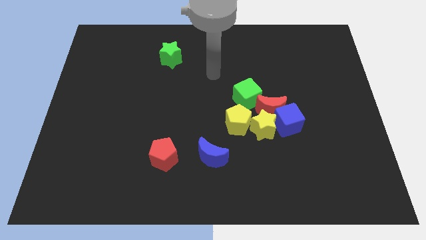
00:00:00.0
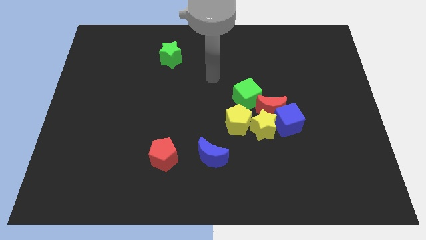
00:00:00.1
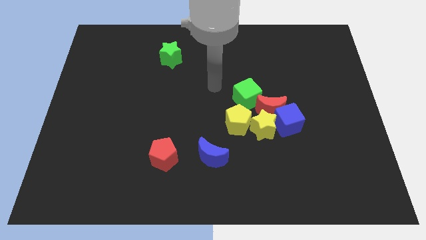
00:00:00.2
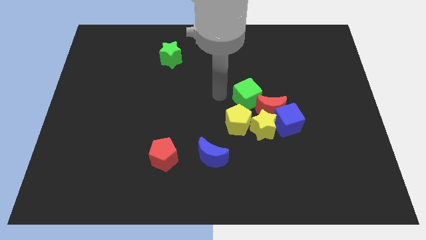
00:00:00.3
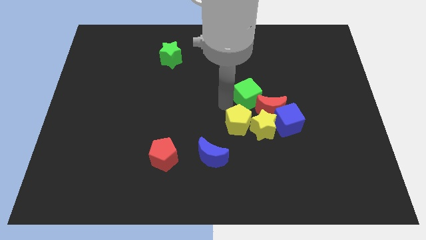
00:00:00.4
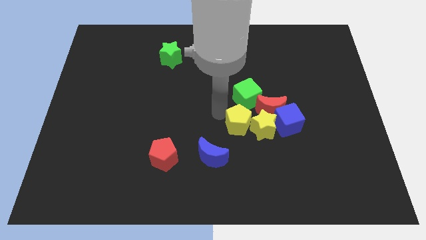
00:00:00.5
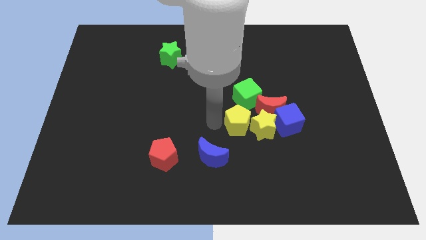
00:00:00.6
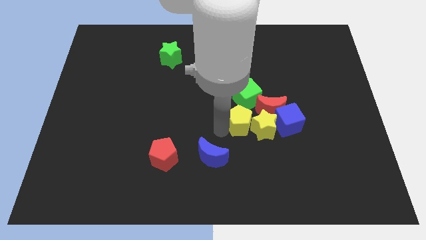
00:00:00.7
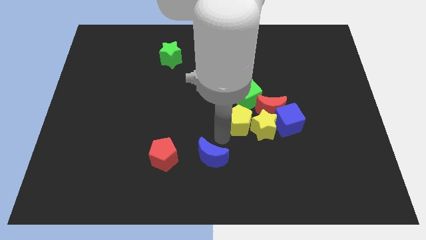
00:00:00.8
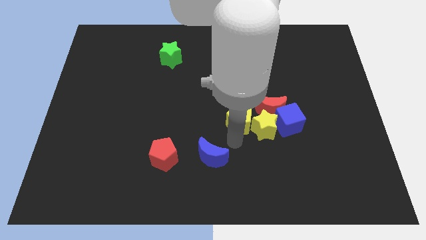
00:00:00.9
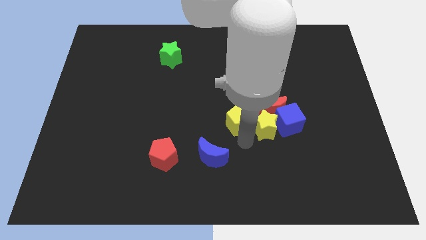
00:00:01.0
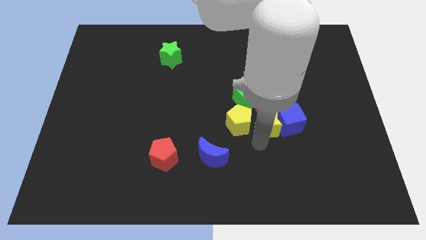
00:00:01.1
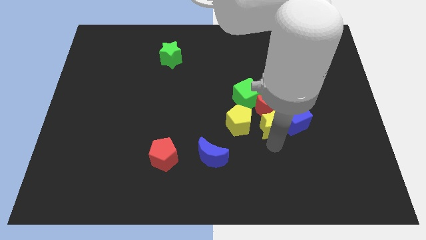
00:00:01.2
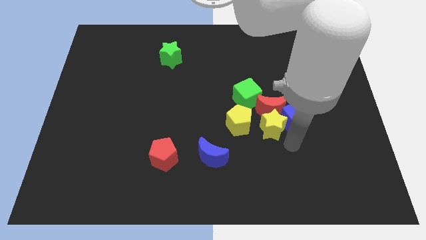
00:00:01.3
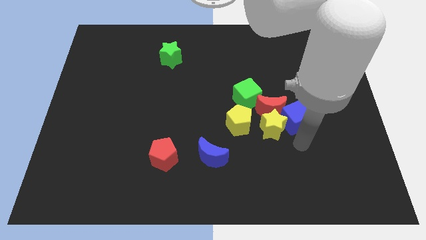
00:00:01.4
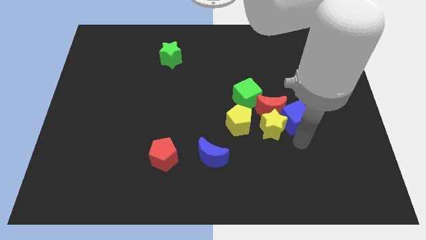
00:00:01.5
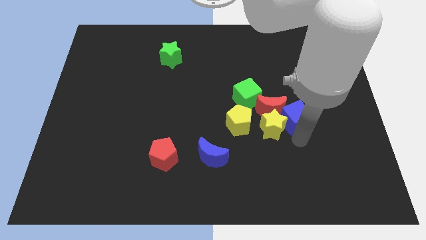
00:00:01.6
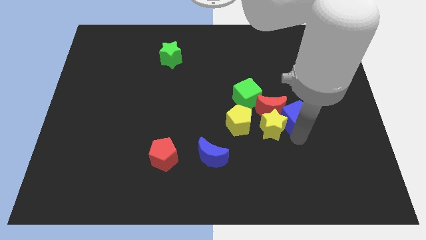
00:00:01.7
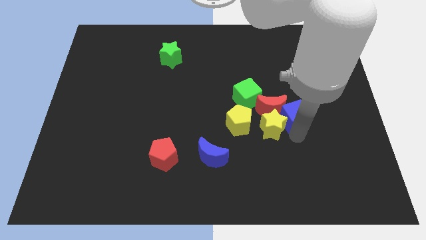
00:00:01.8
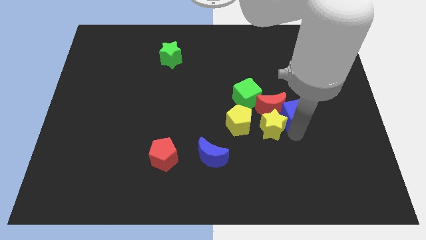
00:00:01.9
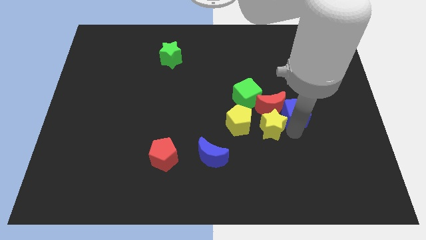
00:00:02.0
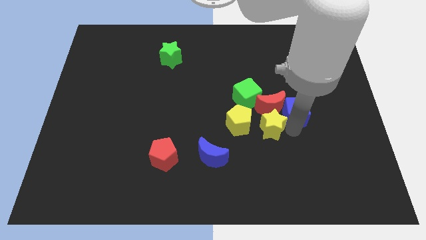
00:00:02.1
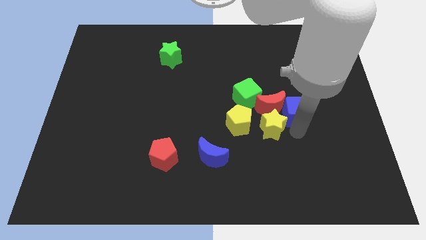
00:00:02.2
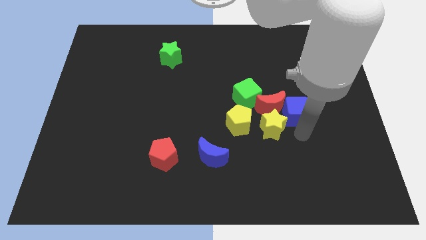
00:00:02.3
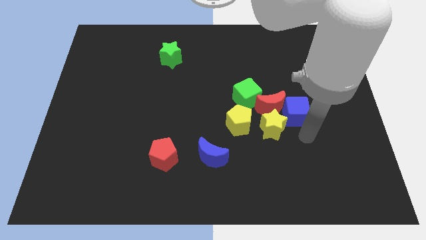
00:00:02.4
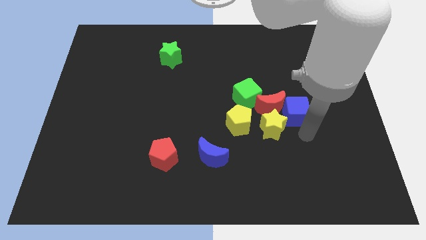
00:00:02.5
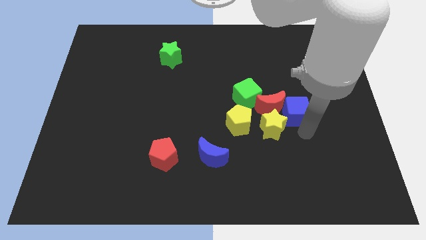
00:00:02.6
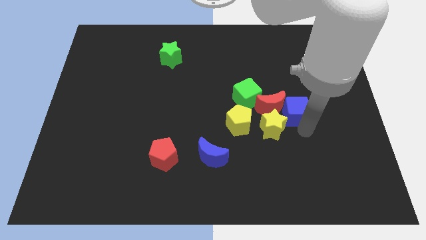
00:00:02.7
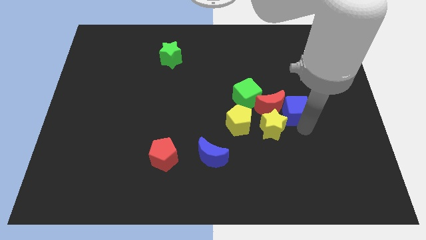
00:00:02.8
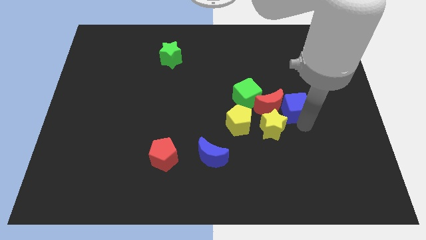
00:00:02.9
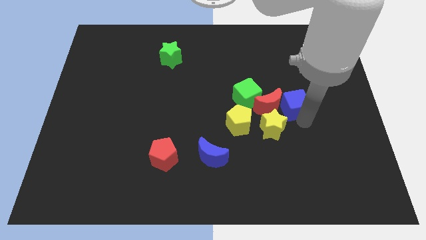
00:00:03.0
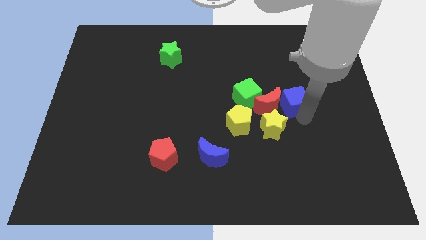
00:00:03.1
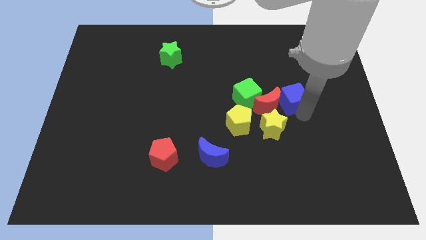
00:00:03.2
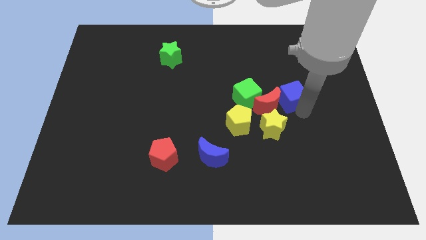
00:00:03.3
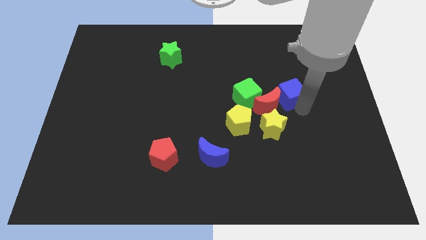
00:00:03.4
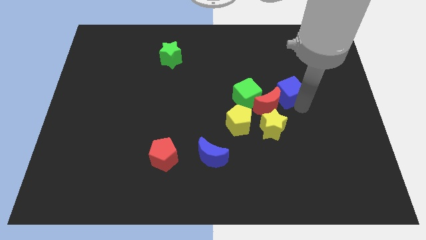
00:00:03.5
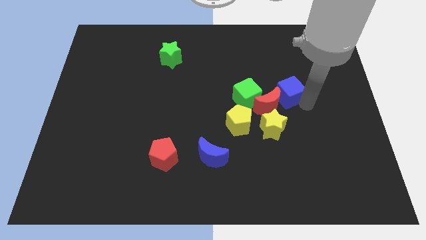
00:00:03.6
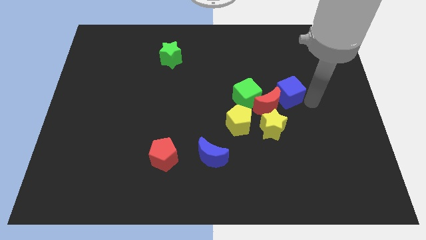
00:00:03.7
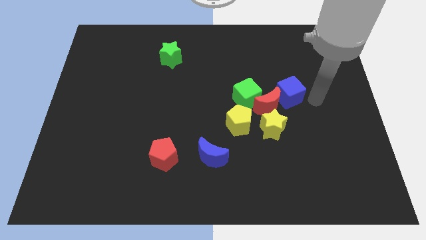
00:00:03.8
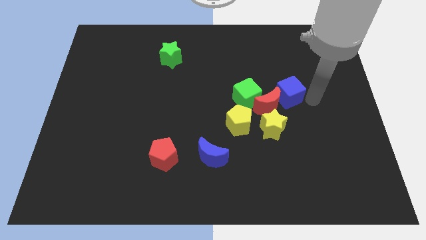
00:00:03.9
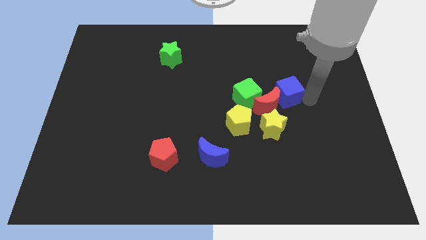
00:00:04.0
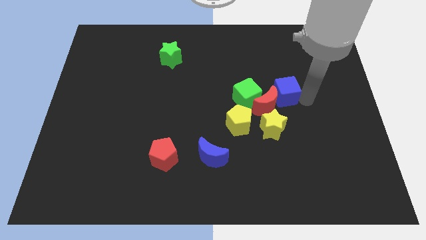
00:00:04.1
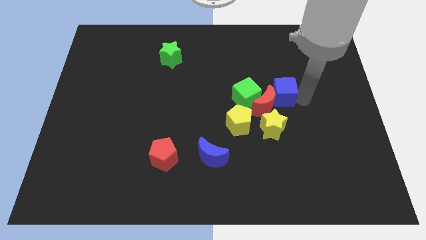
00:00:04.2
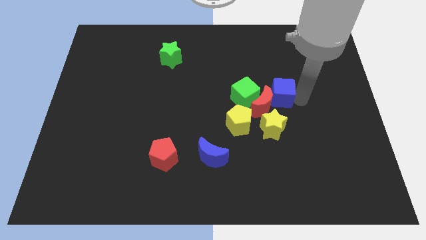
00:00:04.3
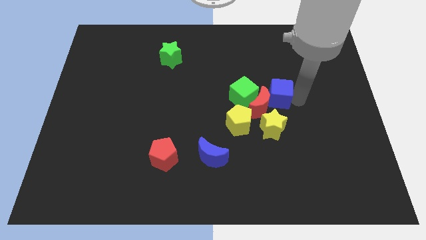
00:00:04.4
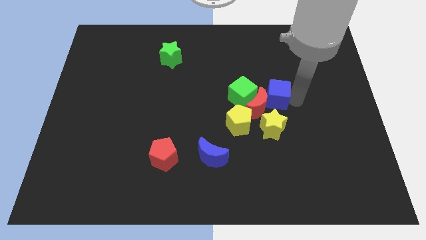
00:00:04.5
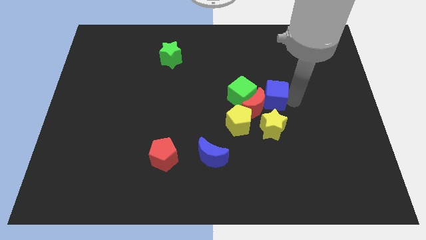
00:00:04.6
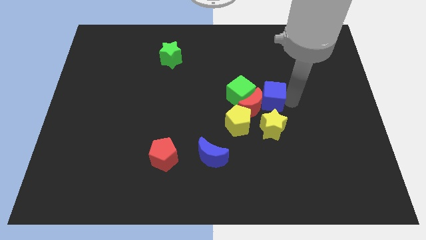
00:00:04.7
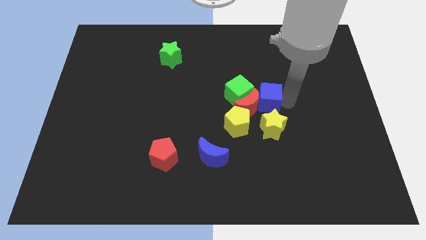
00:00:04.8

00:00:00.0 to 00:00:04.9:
slide the blue cube a bit up and then to the left

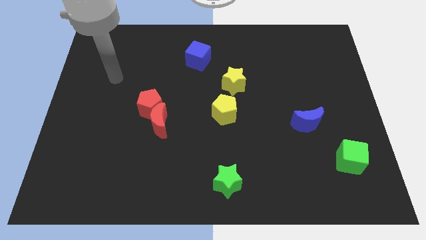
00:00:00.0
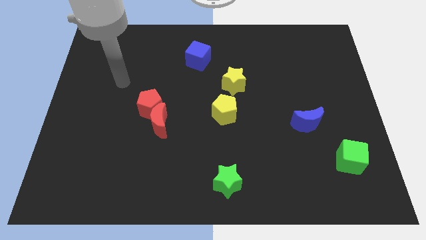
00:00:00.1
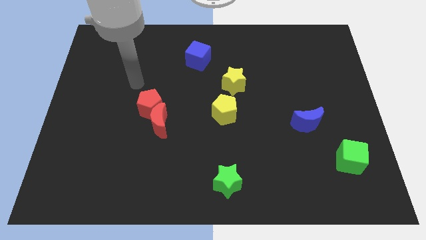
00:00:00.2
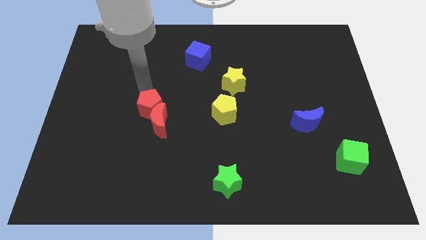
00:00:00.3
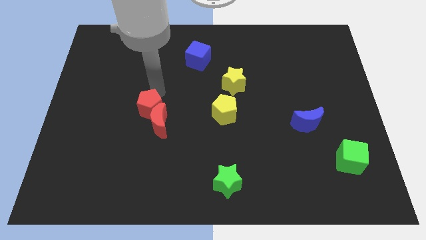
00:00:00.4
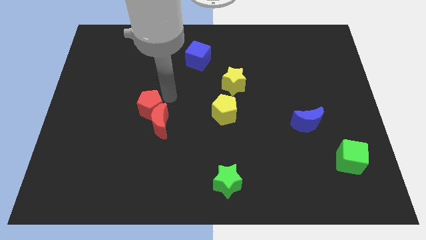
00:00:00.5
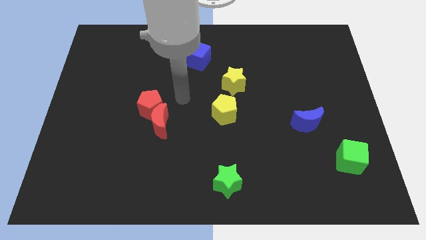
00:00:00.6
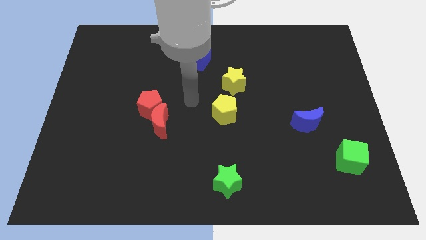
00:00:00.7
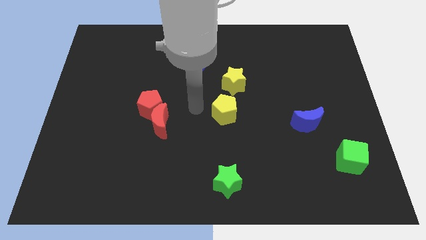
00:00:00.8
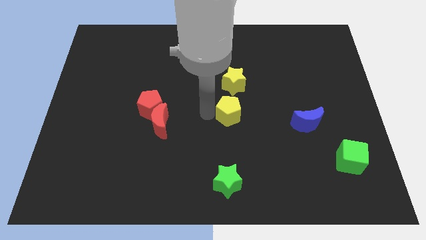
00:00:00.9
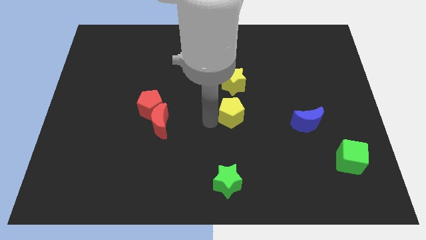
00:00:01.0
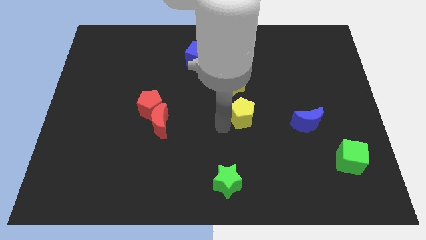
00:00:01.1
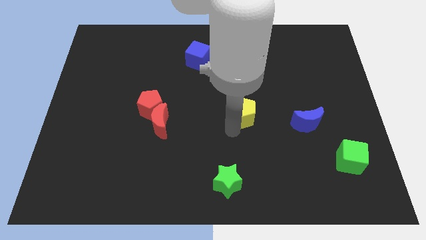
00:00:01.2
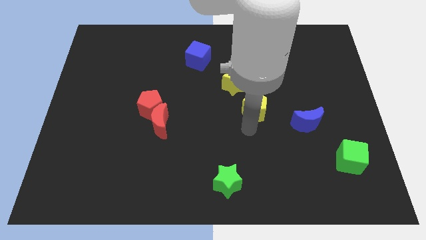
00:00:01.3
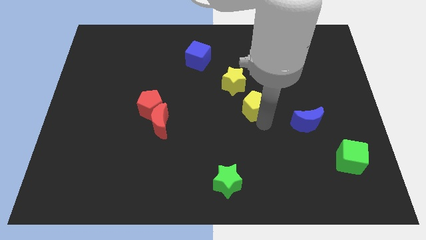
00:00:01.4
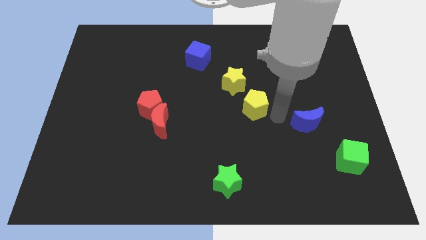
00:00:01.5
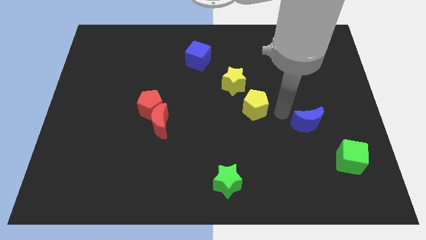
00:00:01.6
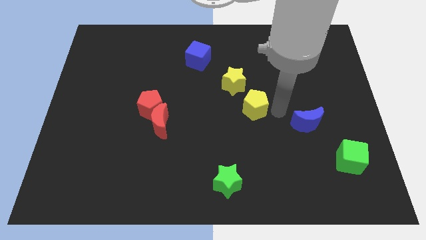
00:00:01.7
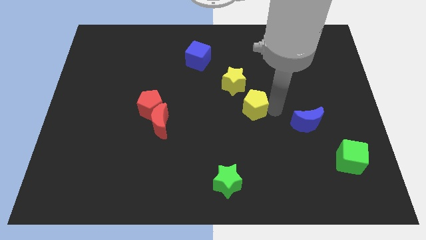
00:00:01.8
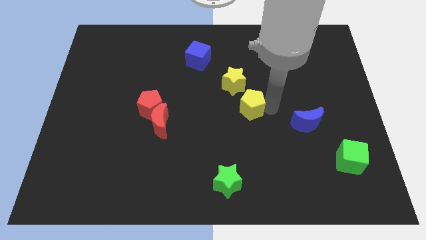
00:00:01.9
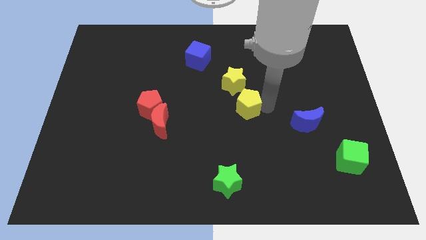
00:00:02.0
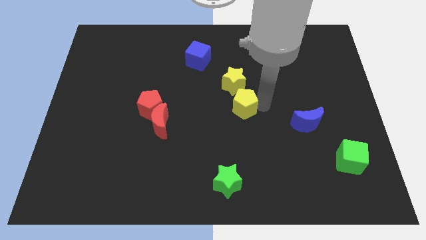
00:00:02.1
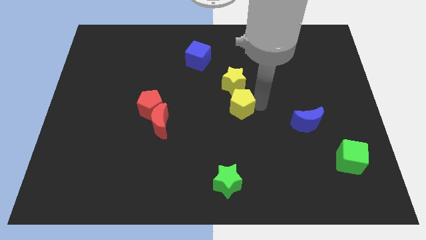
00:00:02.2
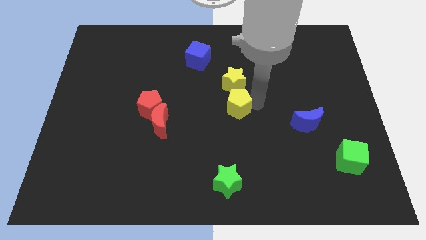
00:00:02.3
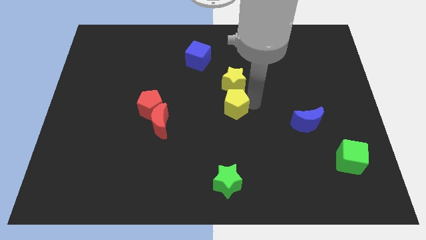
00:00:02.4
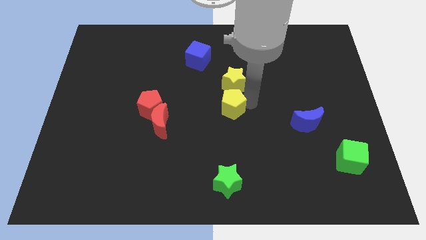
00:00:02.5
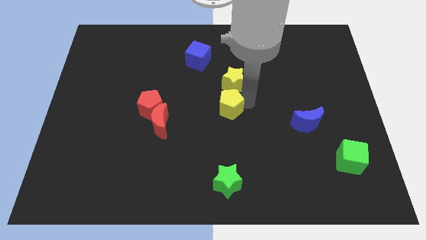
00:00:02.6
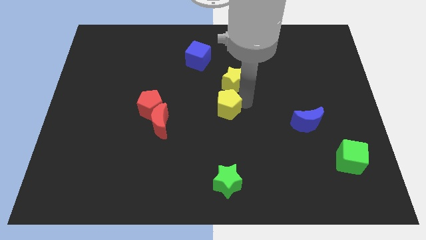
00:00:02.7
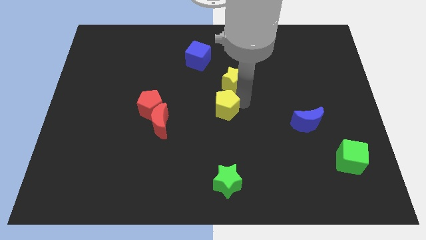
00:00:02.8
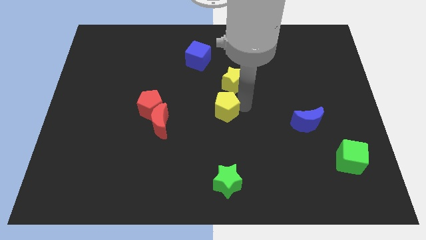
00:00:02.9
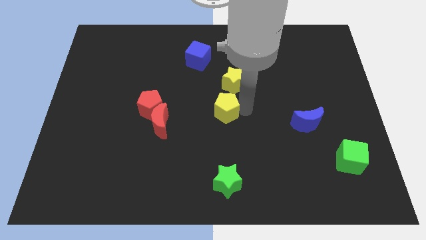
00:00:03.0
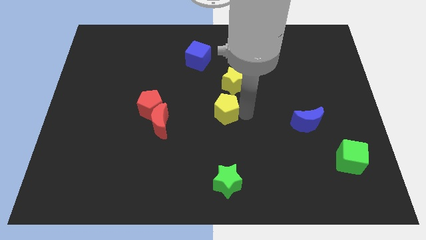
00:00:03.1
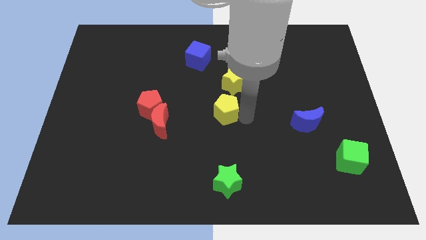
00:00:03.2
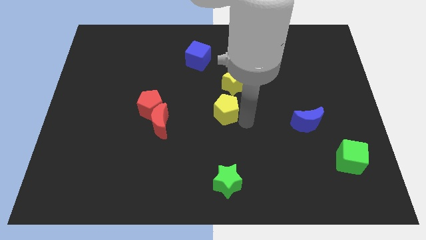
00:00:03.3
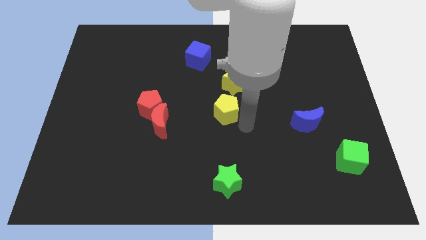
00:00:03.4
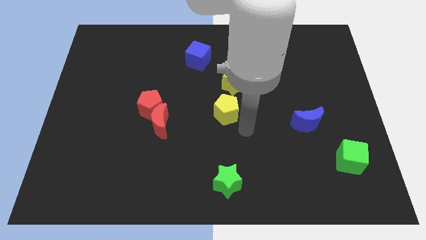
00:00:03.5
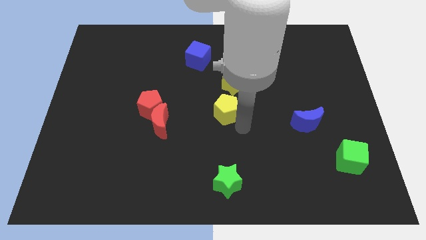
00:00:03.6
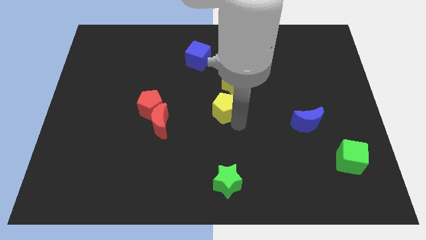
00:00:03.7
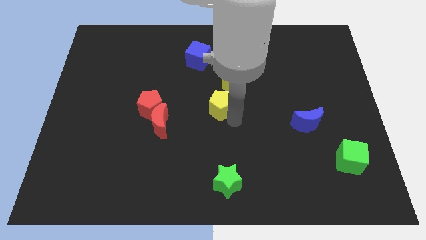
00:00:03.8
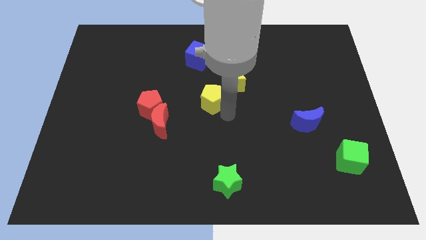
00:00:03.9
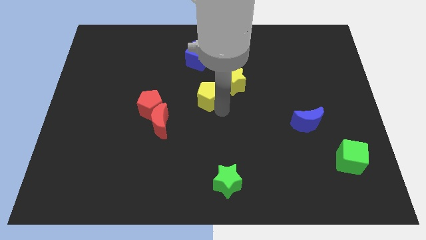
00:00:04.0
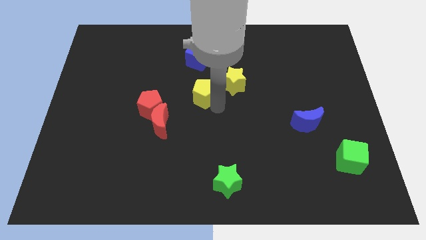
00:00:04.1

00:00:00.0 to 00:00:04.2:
push the yellow pentagon slightly upwards and then to the left
